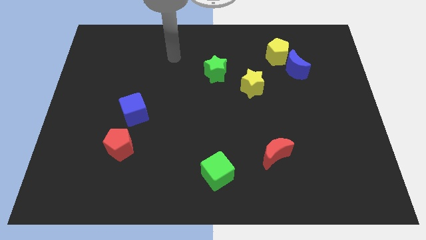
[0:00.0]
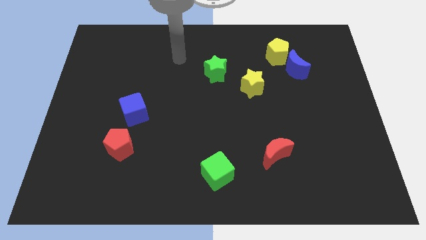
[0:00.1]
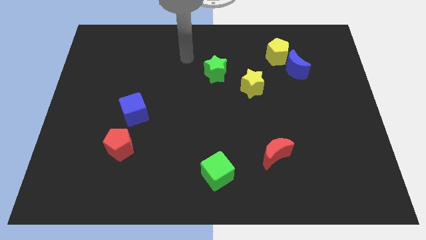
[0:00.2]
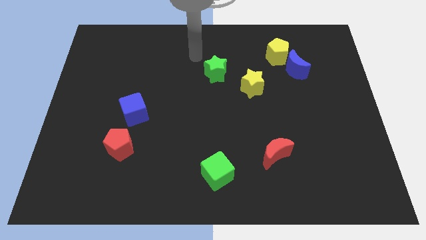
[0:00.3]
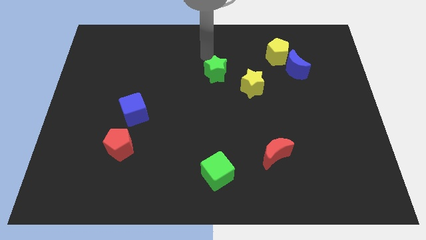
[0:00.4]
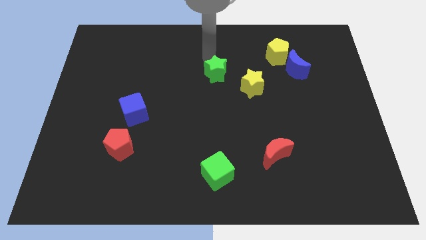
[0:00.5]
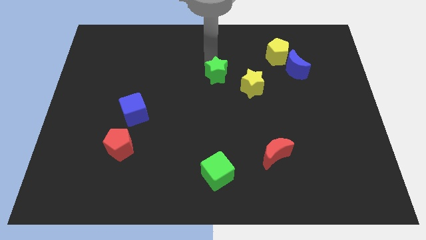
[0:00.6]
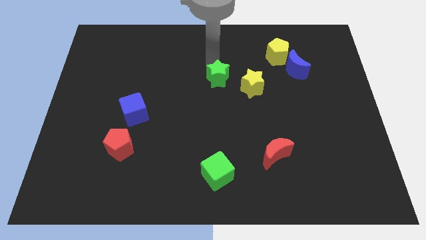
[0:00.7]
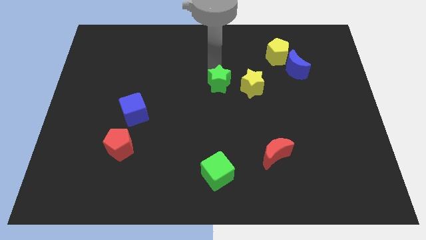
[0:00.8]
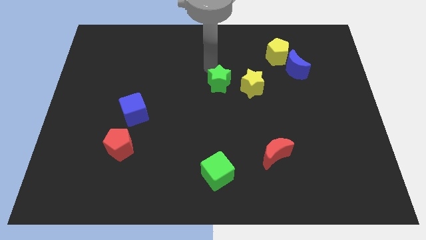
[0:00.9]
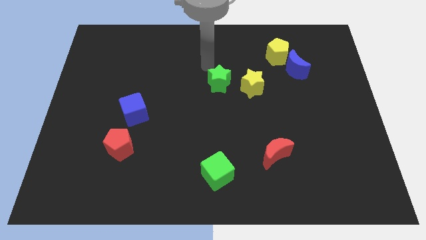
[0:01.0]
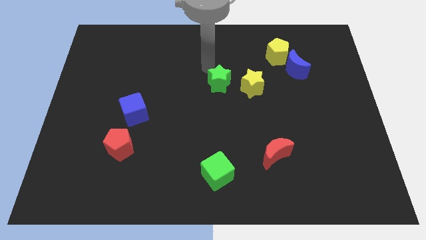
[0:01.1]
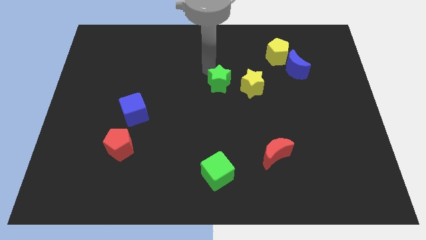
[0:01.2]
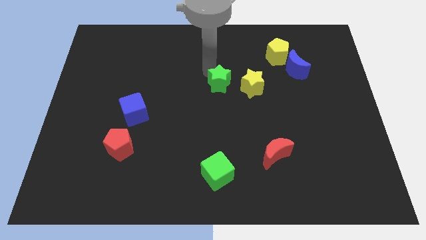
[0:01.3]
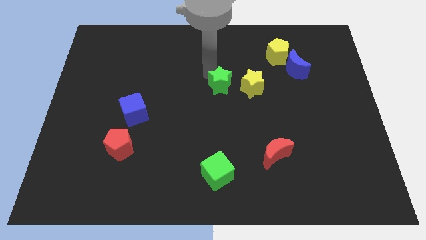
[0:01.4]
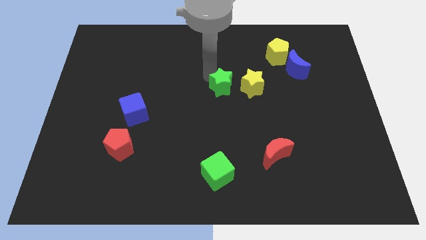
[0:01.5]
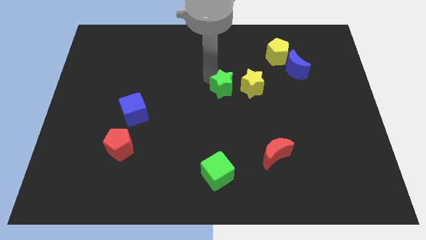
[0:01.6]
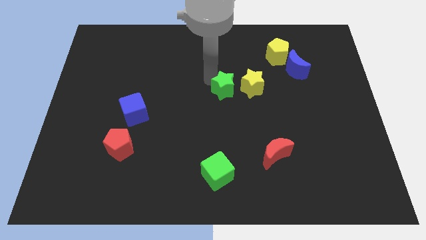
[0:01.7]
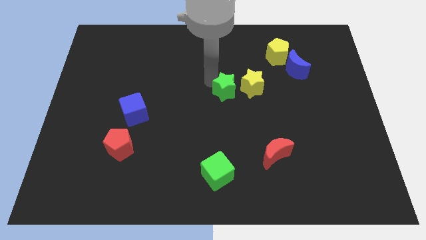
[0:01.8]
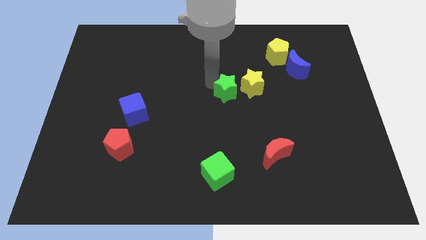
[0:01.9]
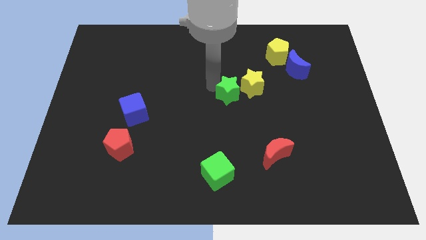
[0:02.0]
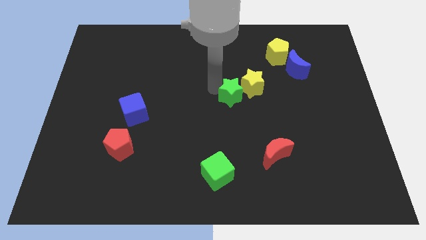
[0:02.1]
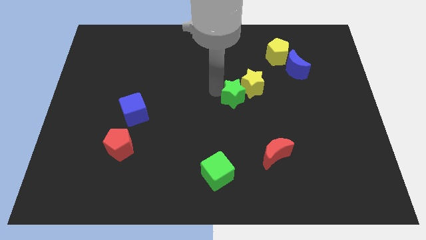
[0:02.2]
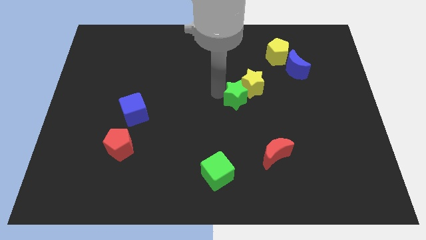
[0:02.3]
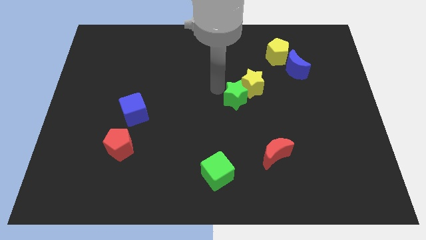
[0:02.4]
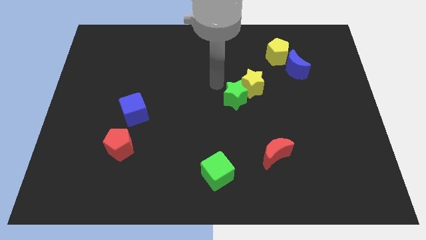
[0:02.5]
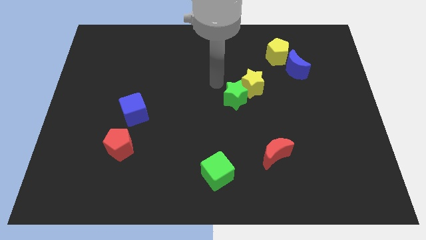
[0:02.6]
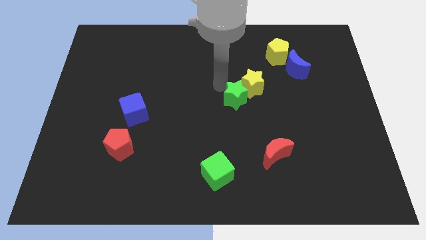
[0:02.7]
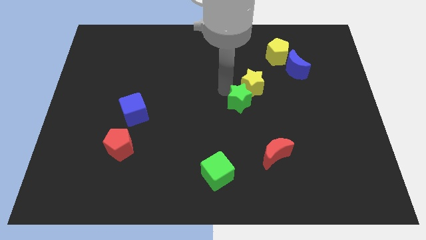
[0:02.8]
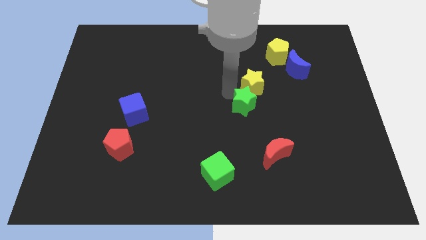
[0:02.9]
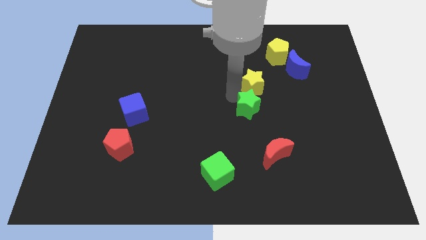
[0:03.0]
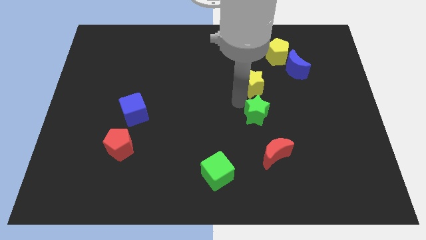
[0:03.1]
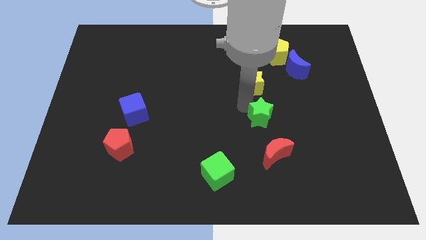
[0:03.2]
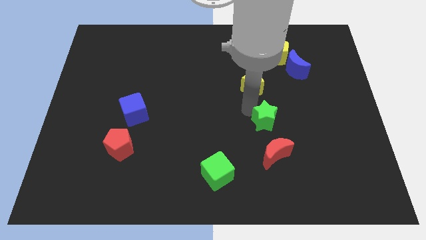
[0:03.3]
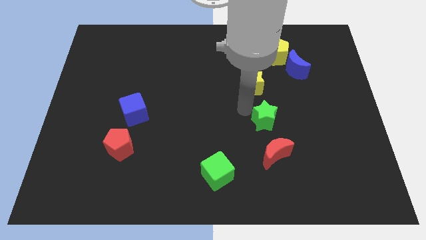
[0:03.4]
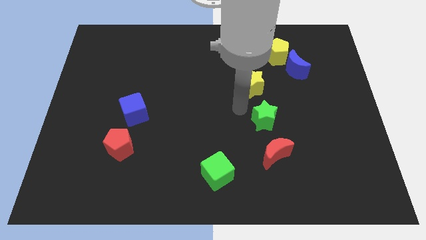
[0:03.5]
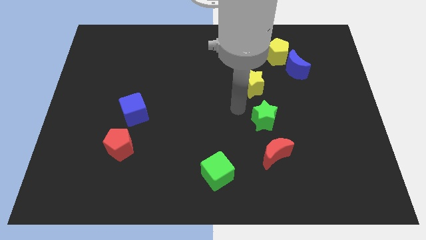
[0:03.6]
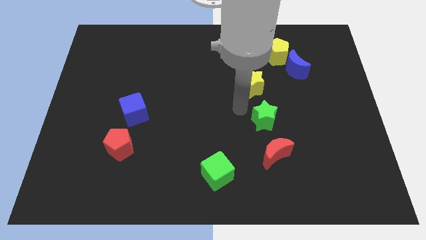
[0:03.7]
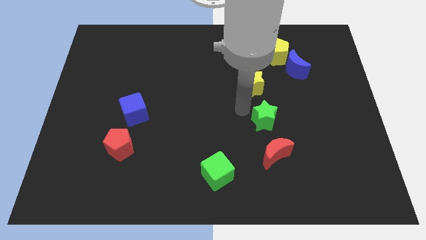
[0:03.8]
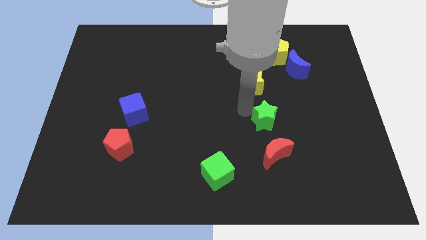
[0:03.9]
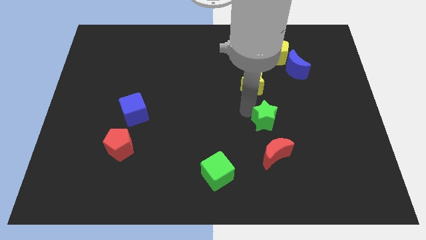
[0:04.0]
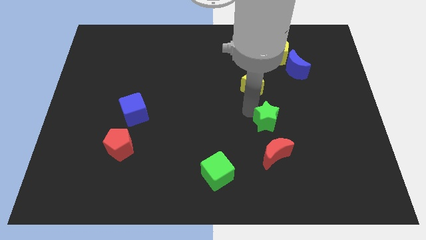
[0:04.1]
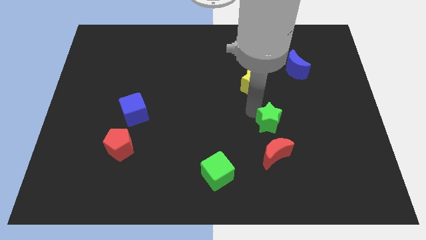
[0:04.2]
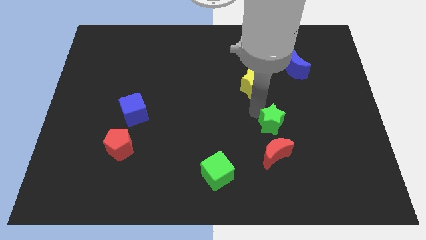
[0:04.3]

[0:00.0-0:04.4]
slide the green star down and right diagonally

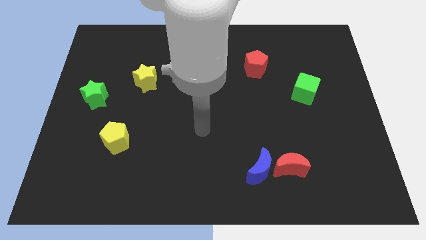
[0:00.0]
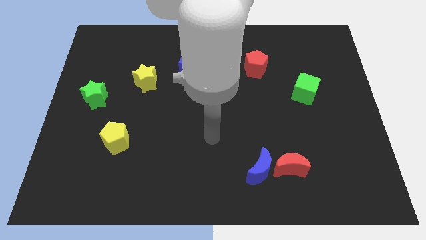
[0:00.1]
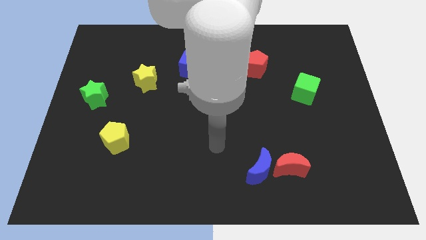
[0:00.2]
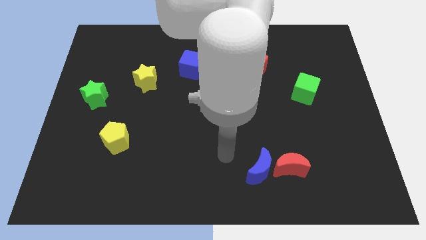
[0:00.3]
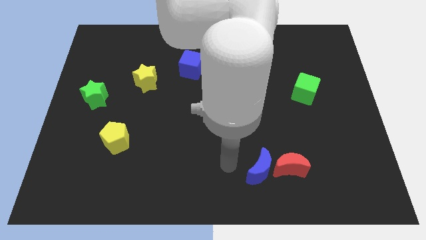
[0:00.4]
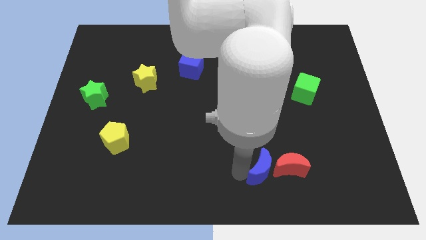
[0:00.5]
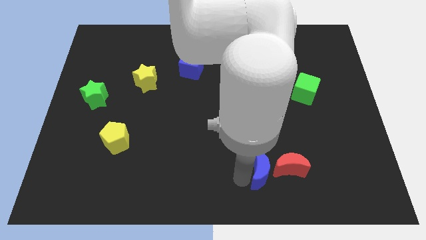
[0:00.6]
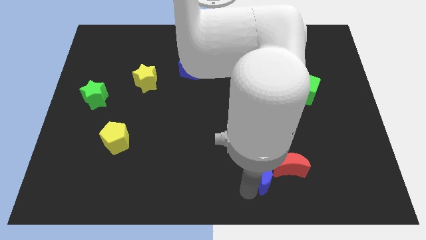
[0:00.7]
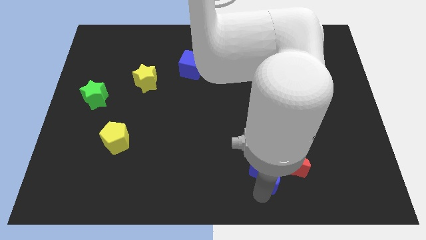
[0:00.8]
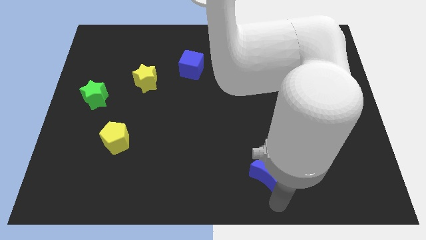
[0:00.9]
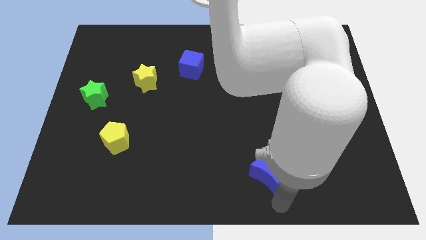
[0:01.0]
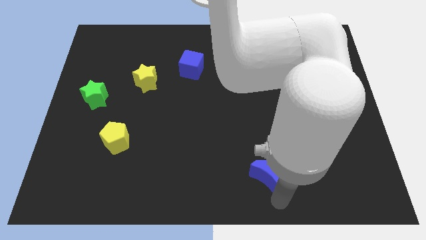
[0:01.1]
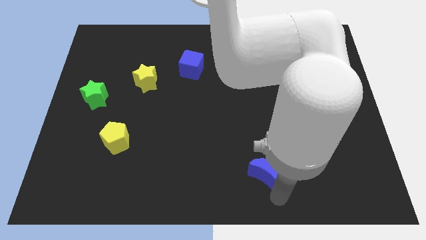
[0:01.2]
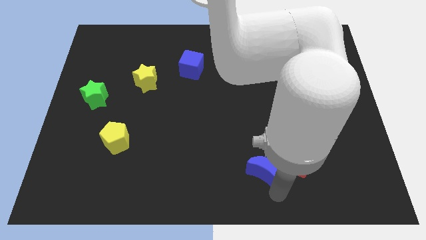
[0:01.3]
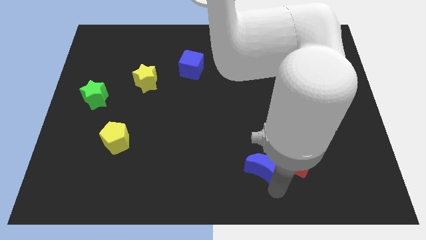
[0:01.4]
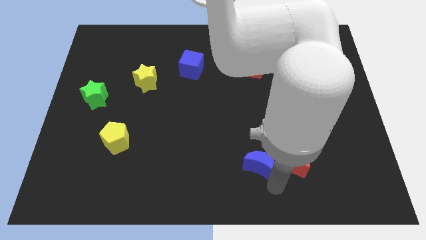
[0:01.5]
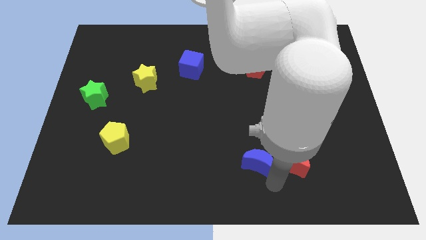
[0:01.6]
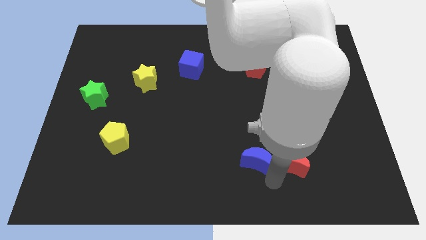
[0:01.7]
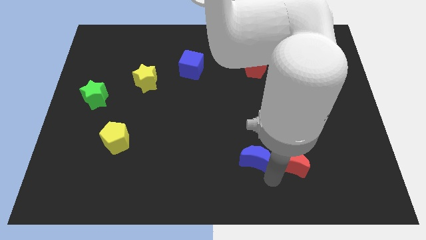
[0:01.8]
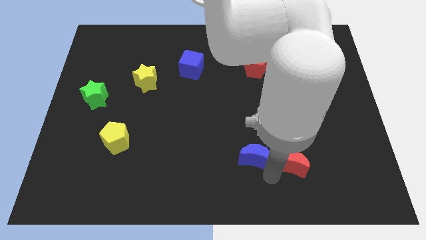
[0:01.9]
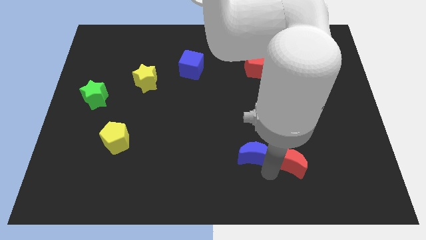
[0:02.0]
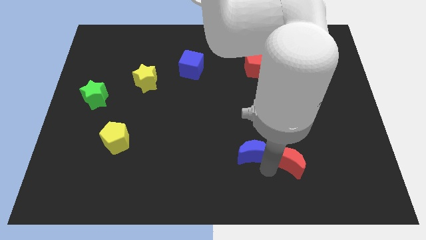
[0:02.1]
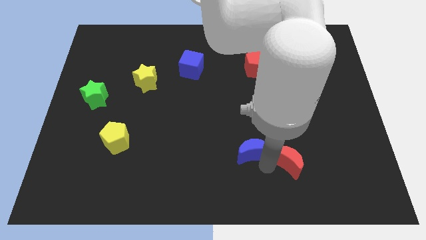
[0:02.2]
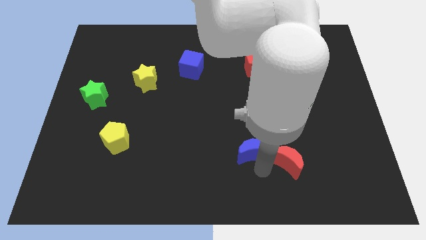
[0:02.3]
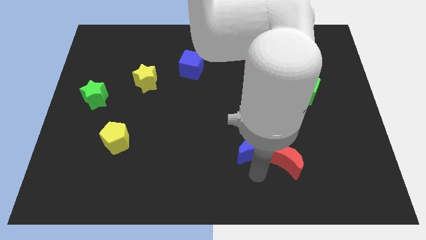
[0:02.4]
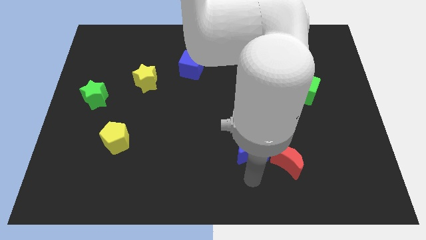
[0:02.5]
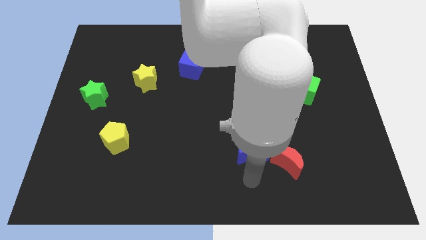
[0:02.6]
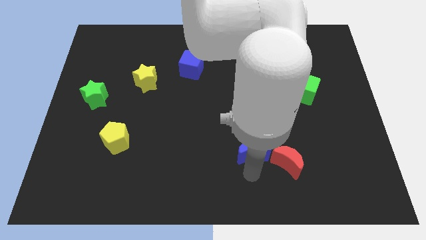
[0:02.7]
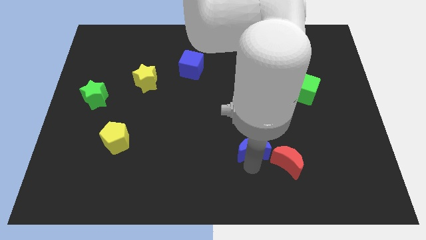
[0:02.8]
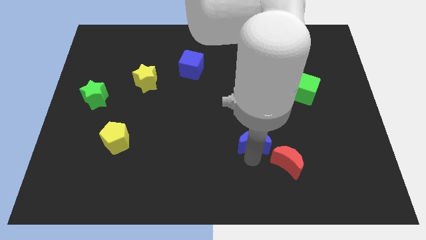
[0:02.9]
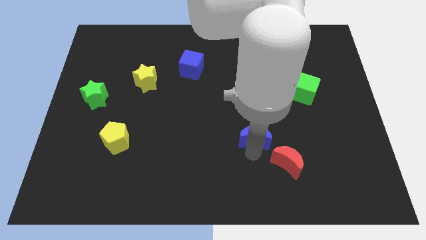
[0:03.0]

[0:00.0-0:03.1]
slightly slide the blue moon up

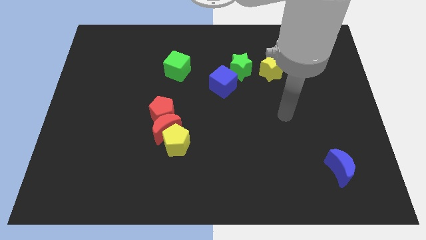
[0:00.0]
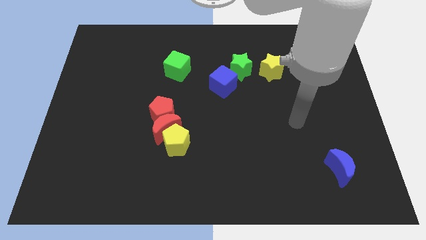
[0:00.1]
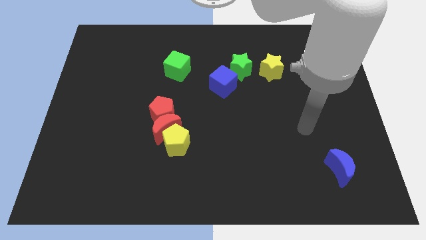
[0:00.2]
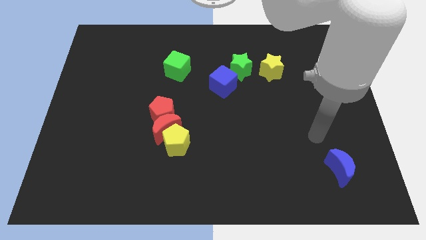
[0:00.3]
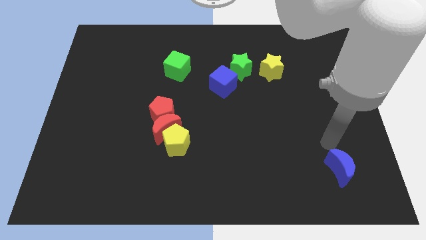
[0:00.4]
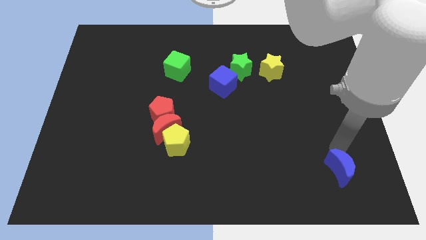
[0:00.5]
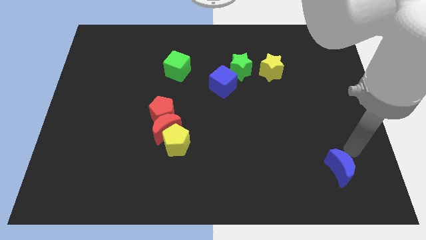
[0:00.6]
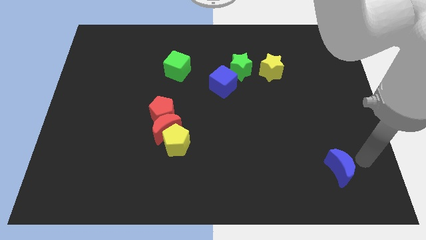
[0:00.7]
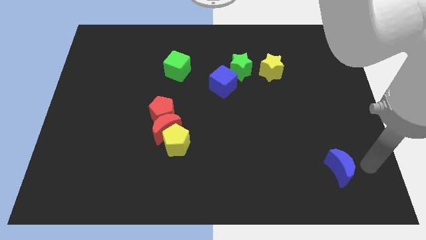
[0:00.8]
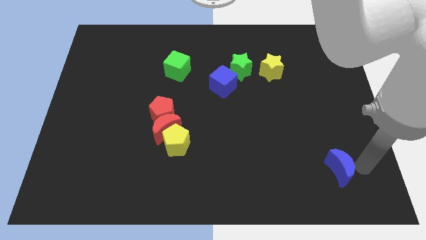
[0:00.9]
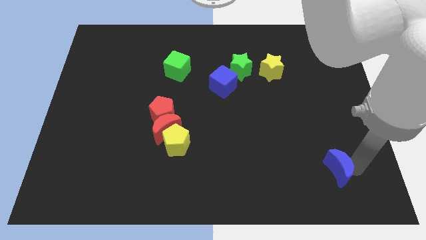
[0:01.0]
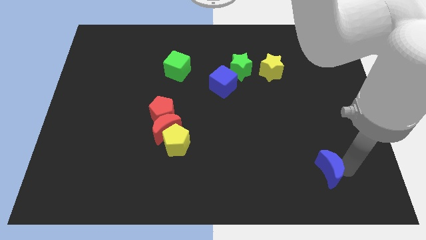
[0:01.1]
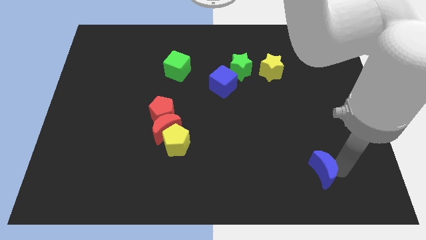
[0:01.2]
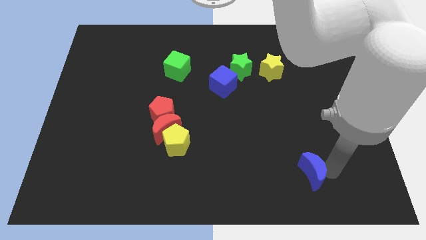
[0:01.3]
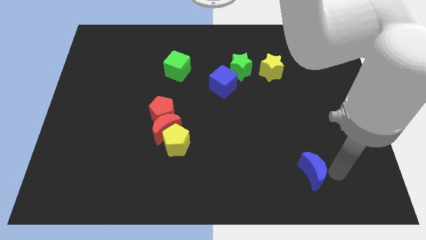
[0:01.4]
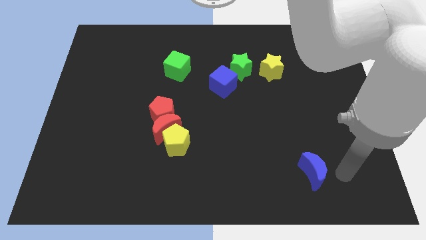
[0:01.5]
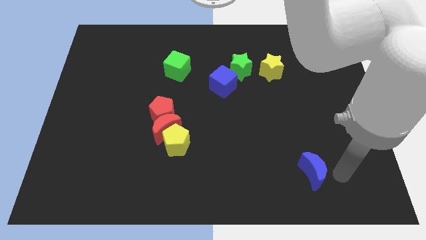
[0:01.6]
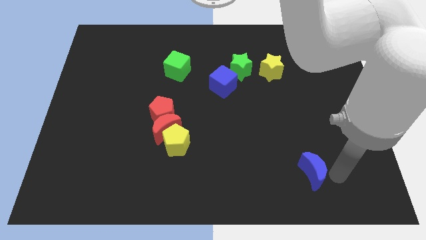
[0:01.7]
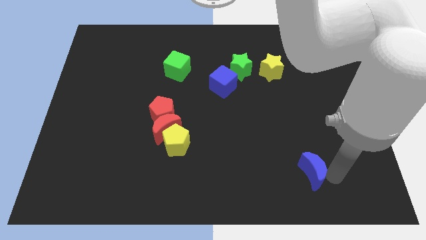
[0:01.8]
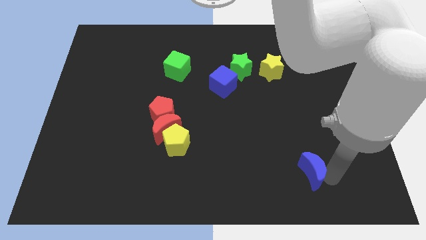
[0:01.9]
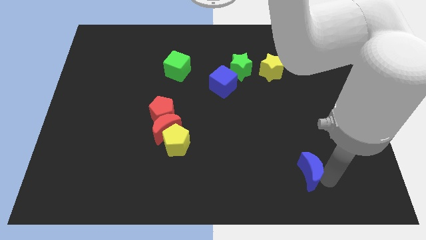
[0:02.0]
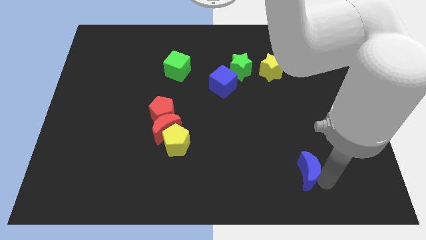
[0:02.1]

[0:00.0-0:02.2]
push the blue moon a little to the left
